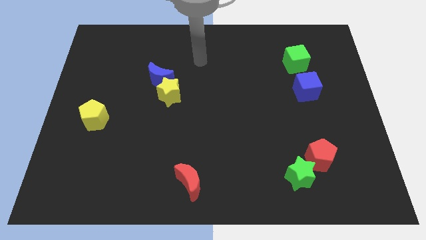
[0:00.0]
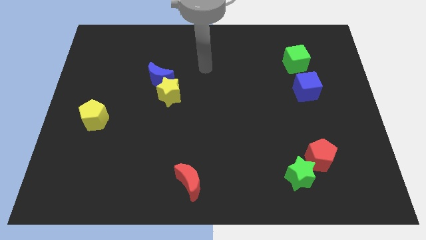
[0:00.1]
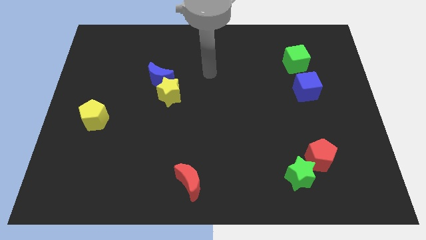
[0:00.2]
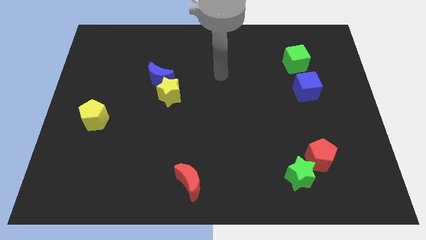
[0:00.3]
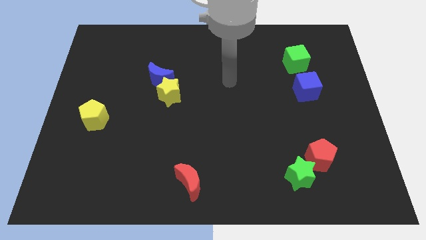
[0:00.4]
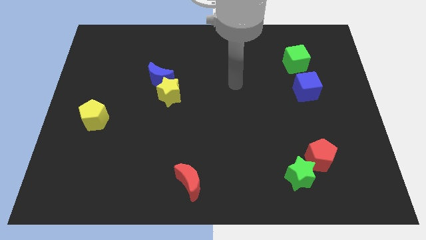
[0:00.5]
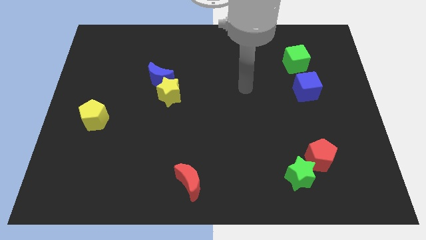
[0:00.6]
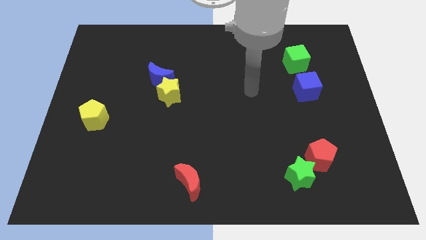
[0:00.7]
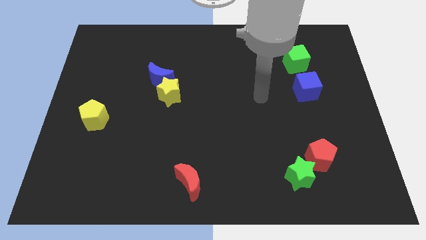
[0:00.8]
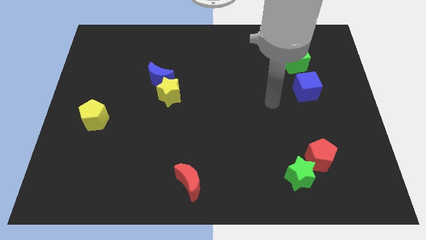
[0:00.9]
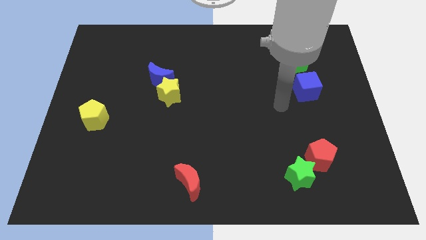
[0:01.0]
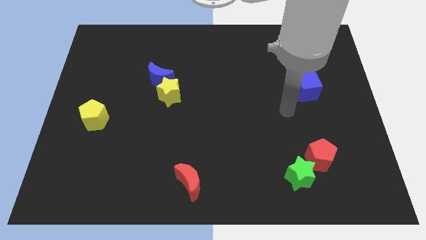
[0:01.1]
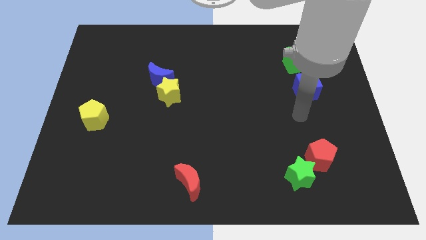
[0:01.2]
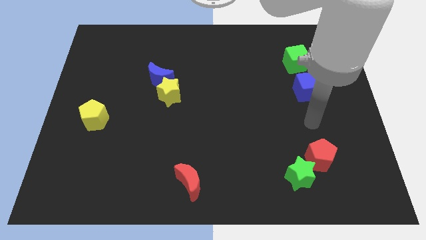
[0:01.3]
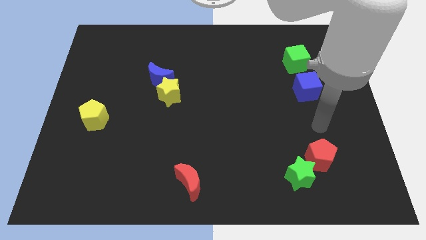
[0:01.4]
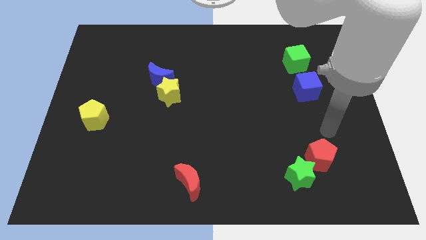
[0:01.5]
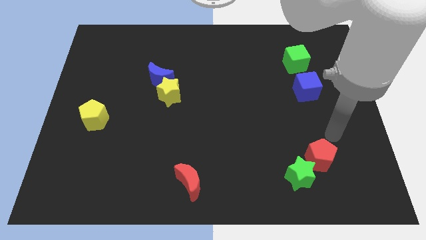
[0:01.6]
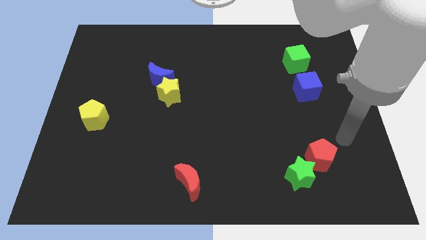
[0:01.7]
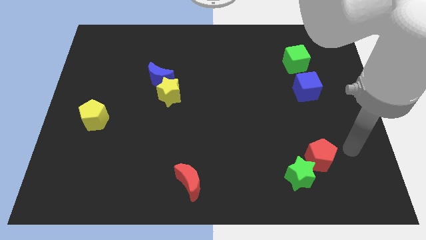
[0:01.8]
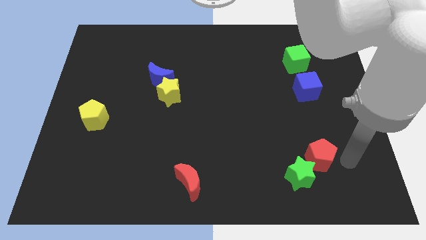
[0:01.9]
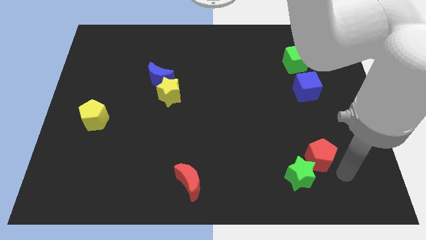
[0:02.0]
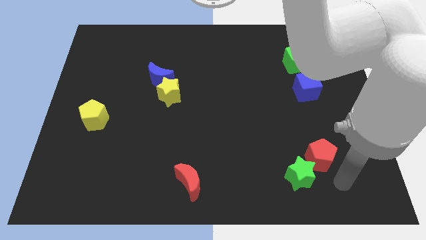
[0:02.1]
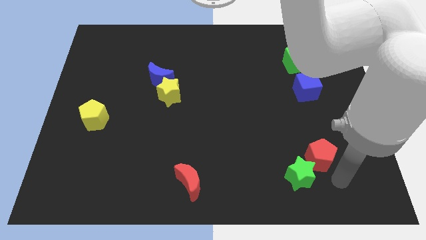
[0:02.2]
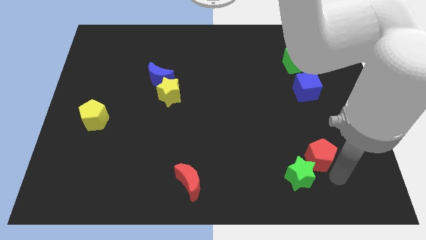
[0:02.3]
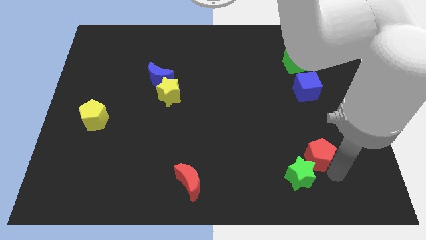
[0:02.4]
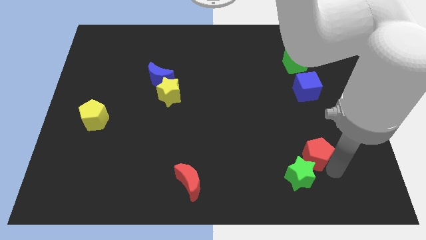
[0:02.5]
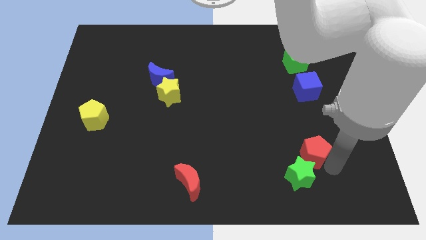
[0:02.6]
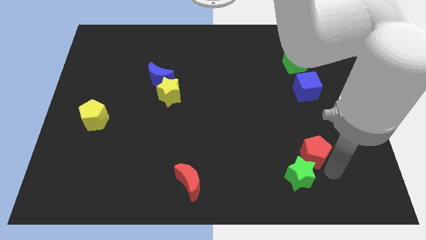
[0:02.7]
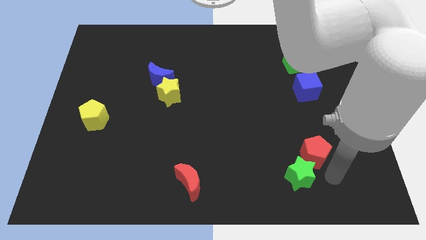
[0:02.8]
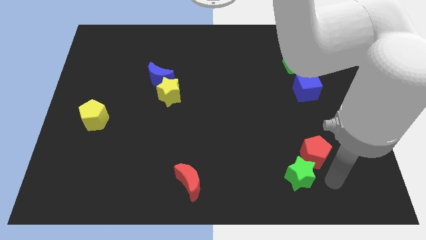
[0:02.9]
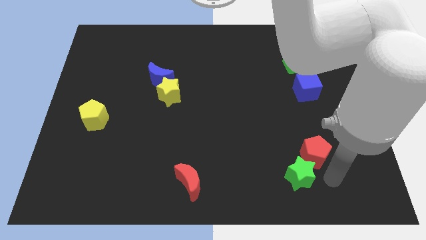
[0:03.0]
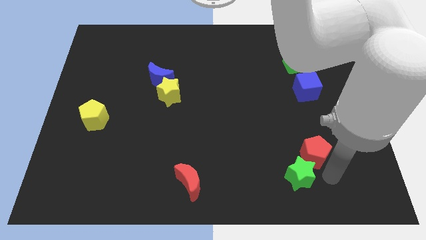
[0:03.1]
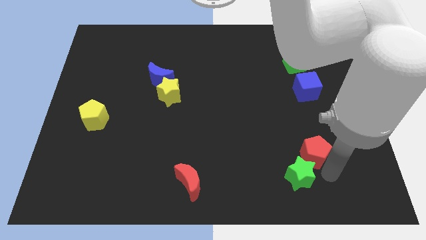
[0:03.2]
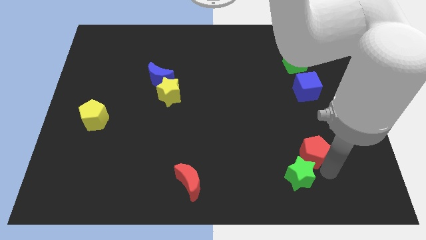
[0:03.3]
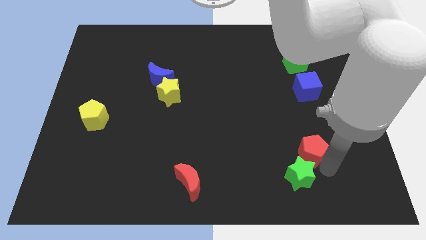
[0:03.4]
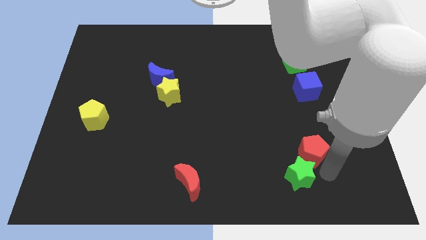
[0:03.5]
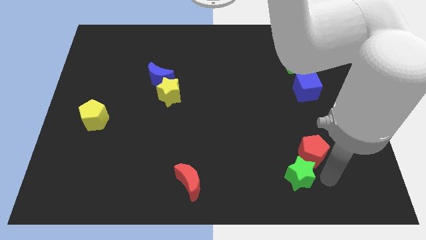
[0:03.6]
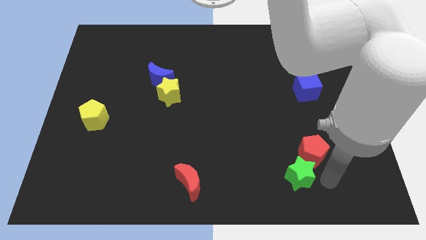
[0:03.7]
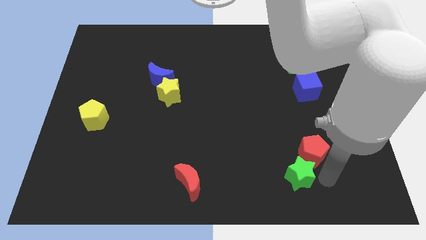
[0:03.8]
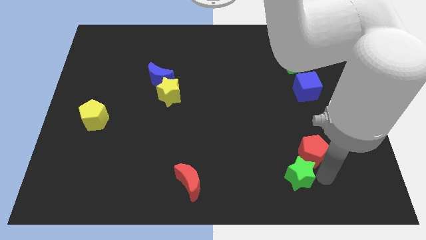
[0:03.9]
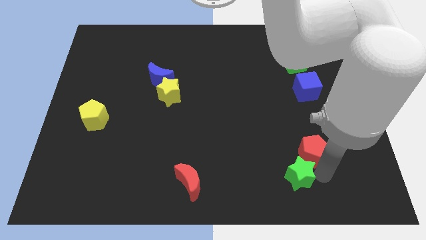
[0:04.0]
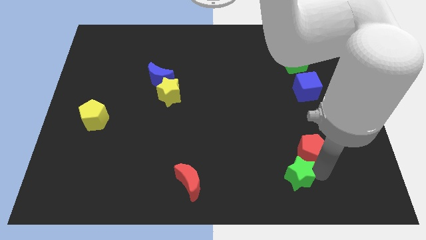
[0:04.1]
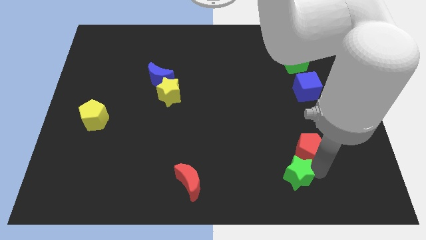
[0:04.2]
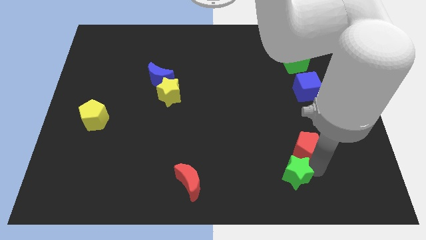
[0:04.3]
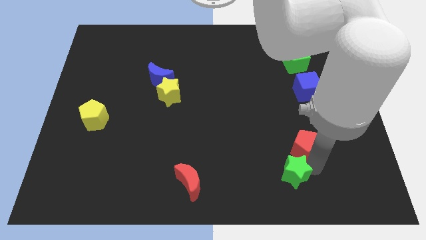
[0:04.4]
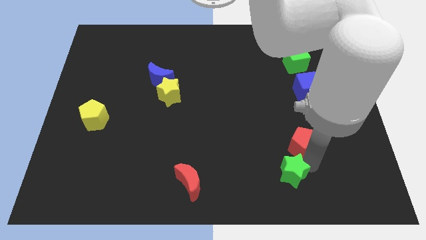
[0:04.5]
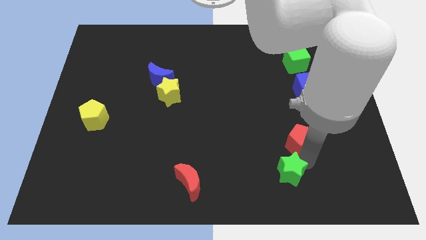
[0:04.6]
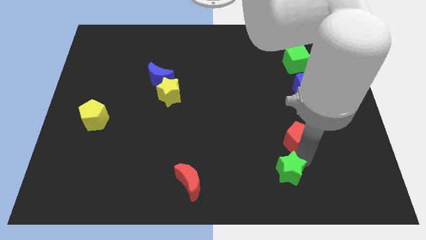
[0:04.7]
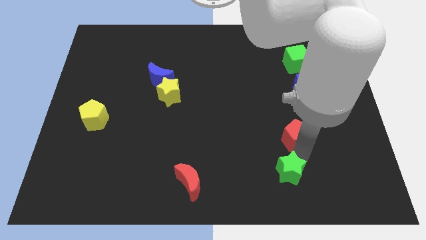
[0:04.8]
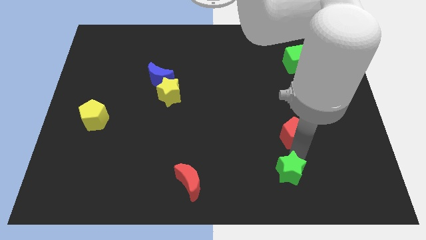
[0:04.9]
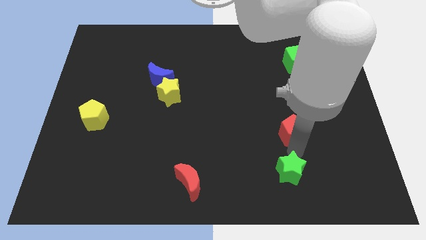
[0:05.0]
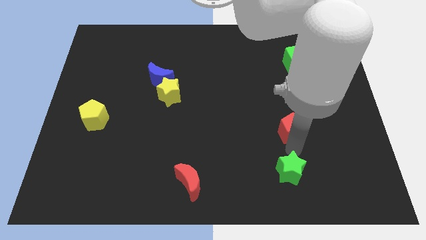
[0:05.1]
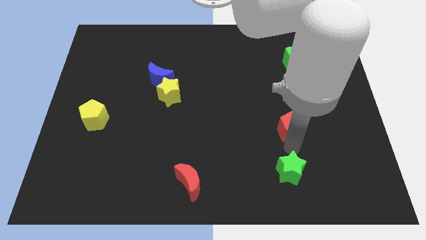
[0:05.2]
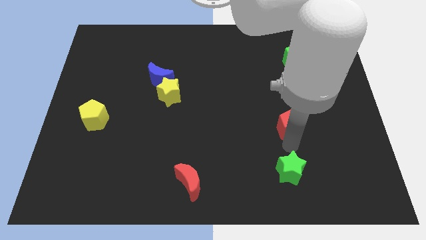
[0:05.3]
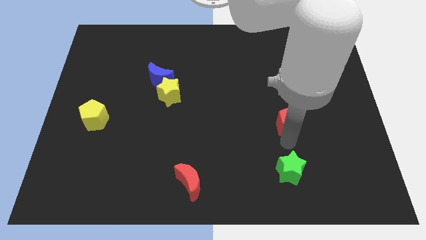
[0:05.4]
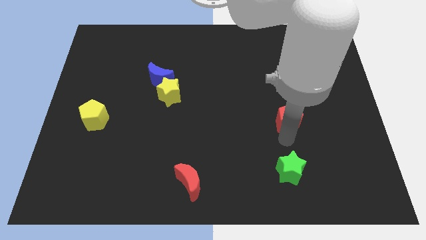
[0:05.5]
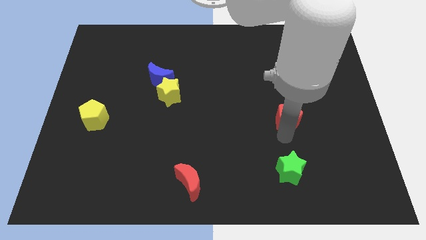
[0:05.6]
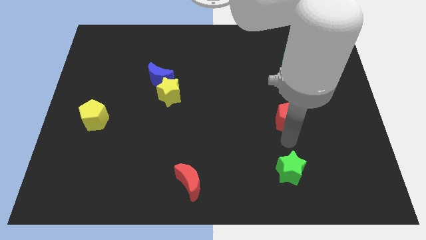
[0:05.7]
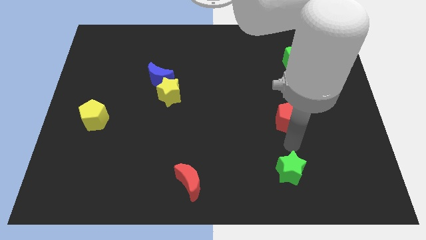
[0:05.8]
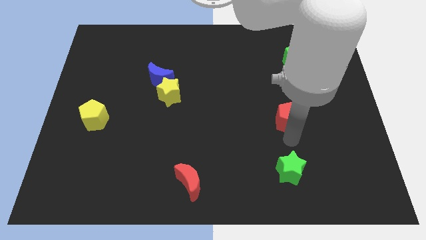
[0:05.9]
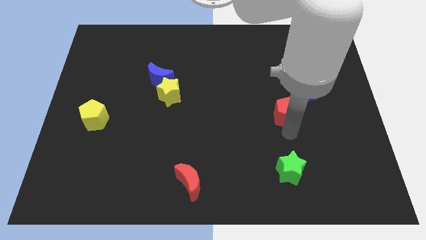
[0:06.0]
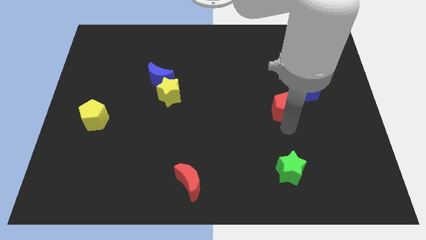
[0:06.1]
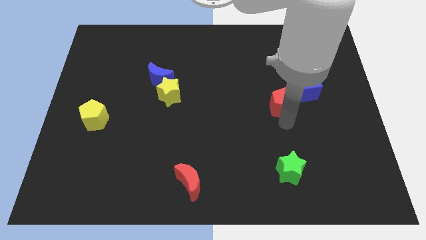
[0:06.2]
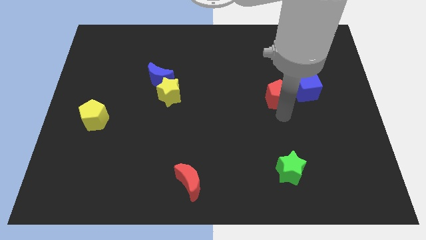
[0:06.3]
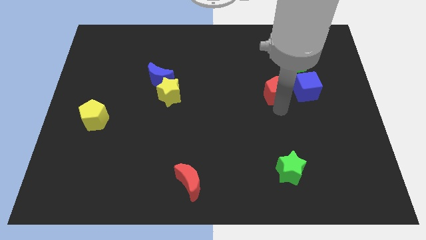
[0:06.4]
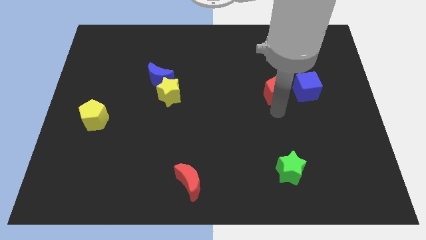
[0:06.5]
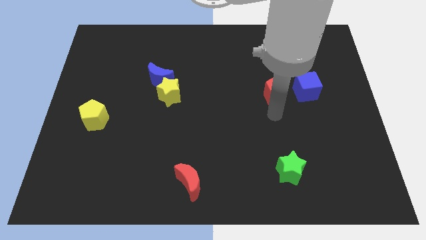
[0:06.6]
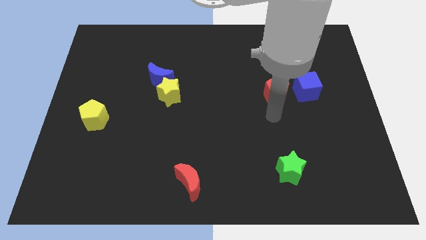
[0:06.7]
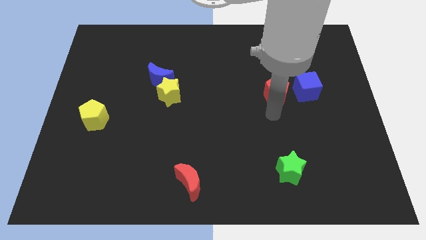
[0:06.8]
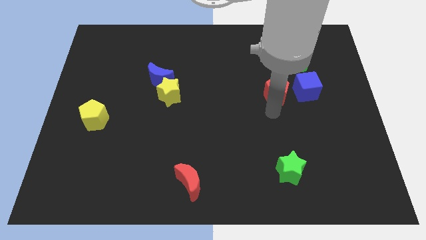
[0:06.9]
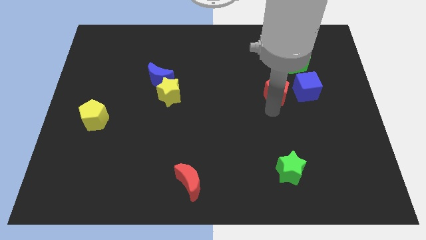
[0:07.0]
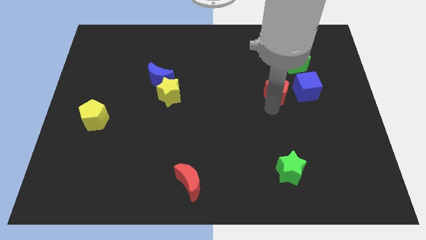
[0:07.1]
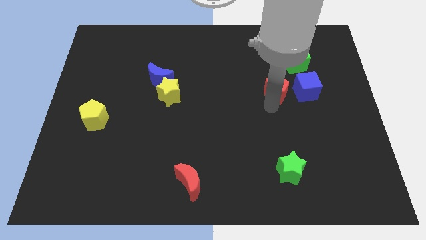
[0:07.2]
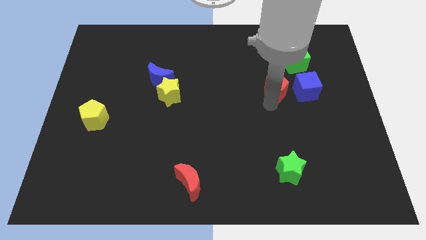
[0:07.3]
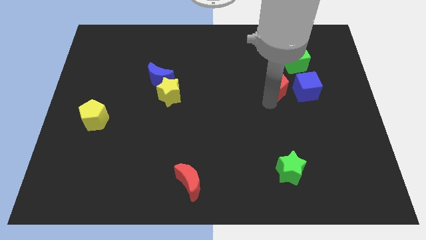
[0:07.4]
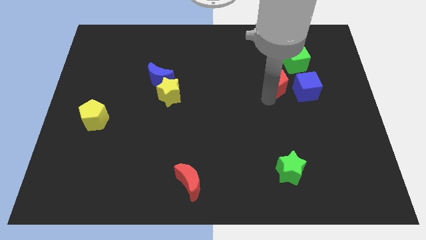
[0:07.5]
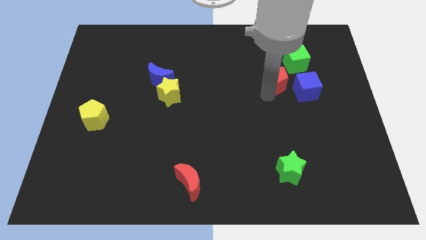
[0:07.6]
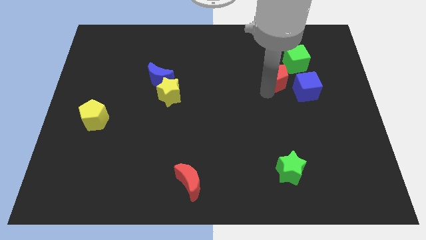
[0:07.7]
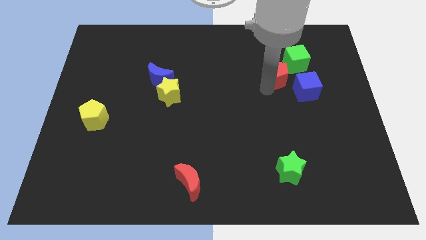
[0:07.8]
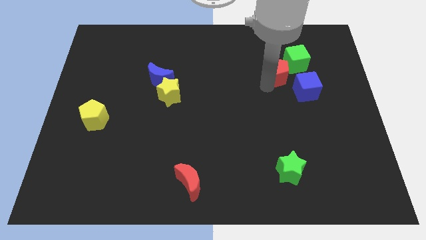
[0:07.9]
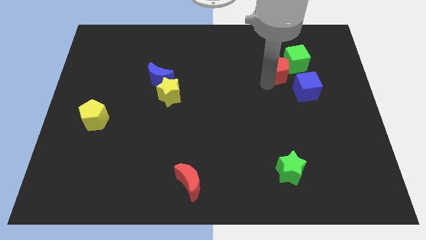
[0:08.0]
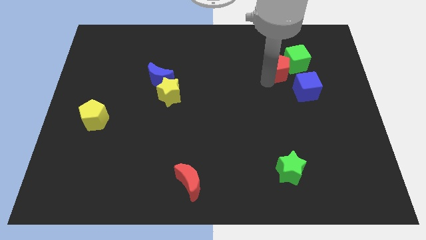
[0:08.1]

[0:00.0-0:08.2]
slide the red pentagon next to the green cube
